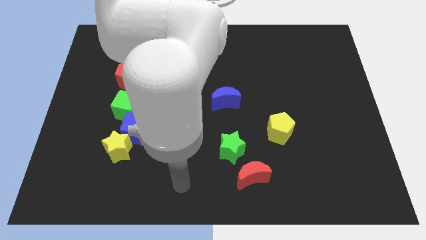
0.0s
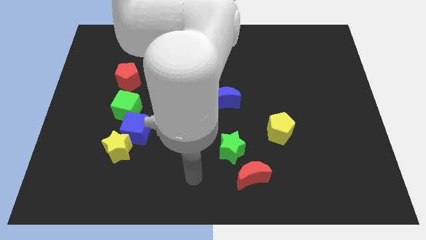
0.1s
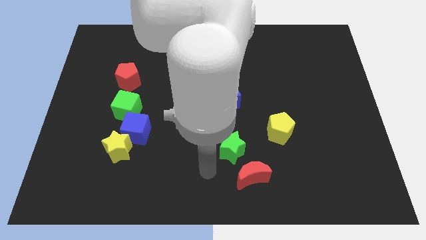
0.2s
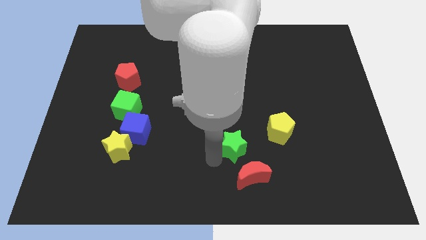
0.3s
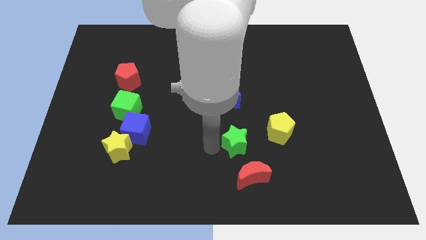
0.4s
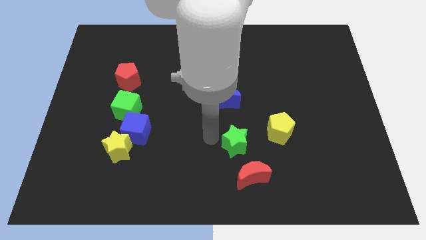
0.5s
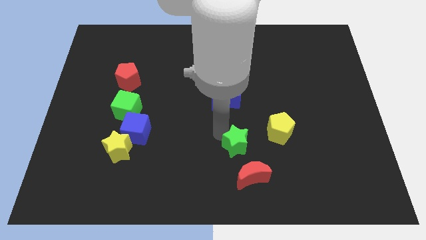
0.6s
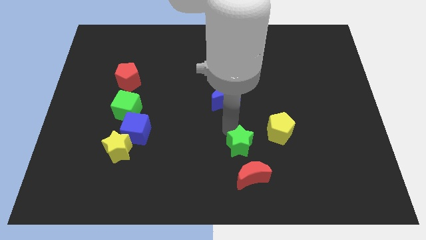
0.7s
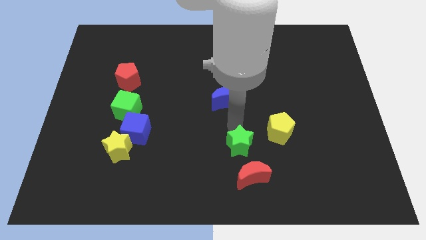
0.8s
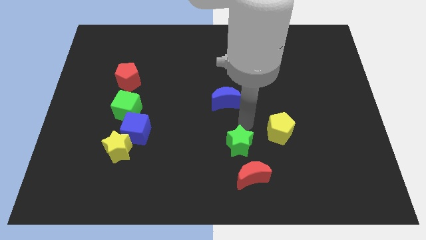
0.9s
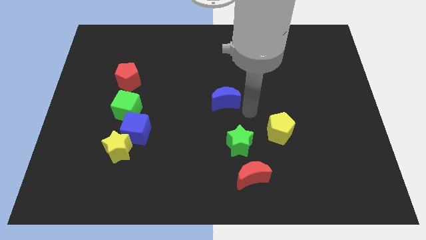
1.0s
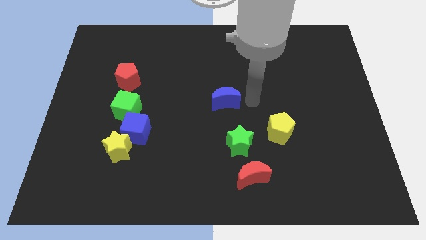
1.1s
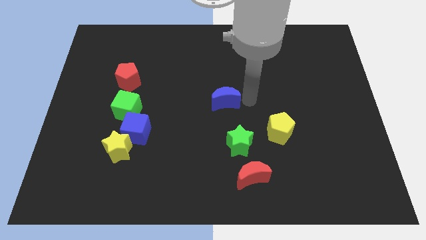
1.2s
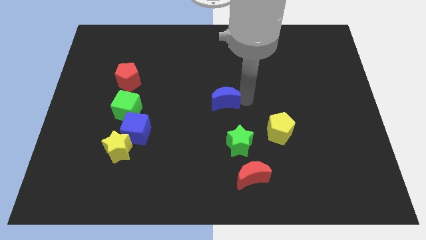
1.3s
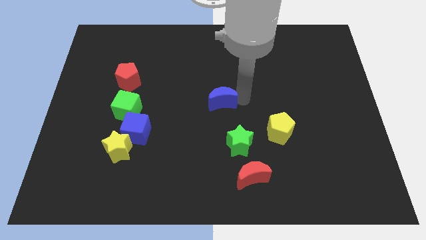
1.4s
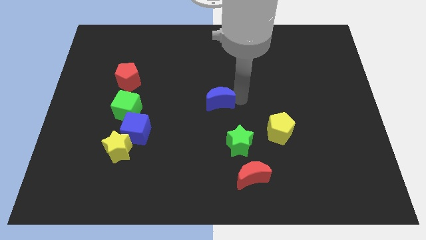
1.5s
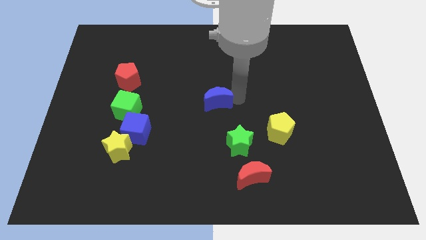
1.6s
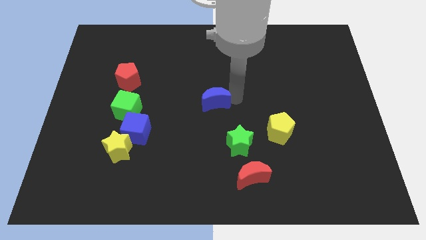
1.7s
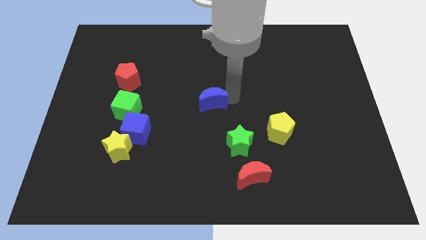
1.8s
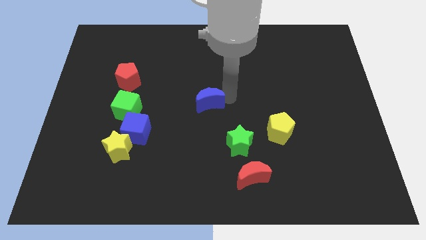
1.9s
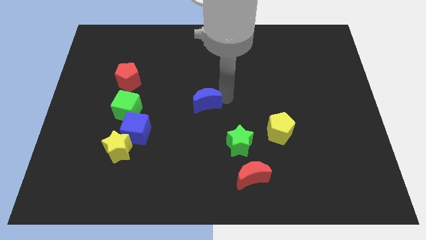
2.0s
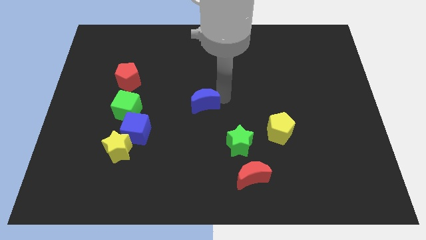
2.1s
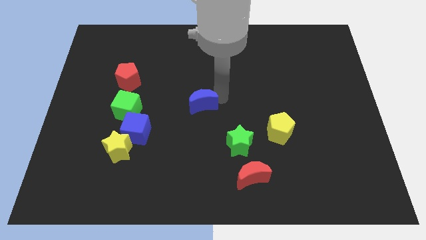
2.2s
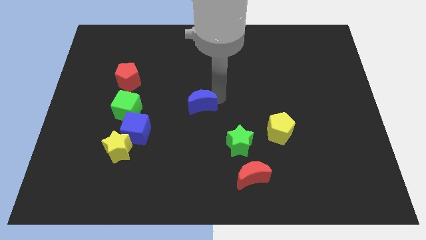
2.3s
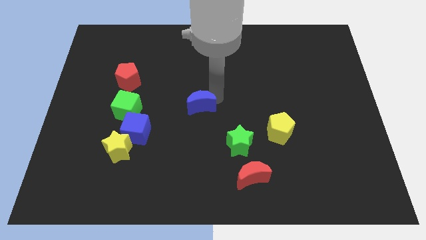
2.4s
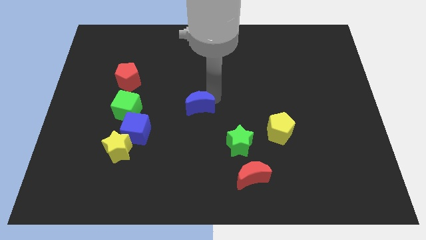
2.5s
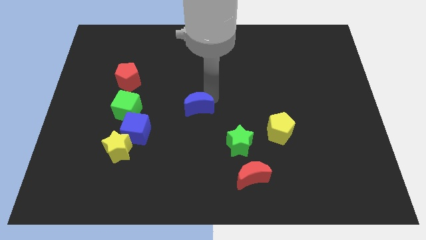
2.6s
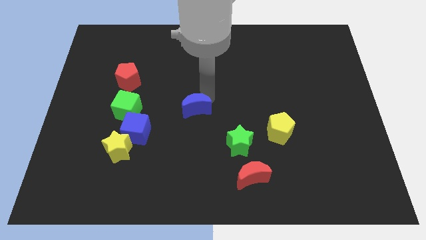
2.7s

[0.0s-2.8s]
slightly push the blue moon to the left

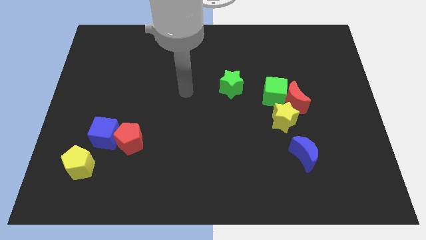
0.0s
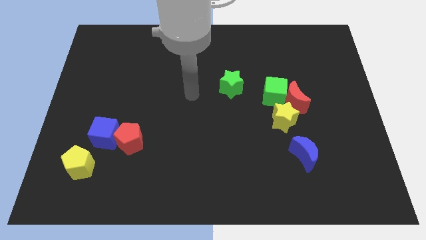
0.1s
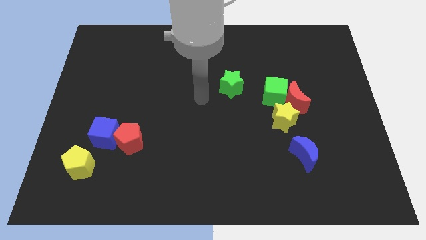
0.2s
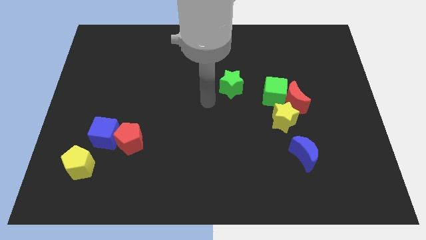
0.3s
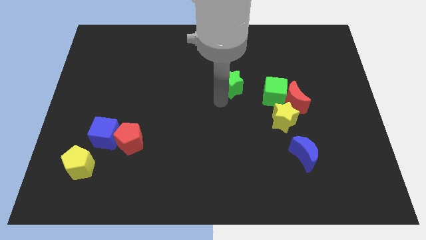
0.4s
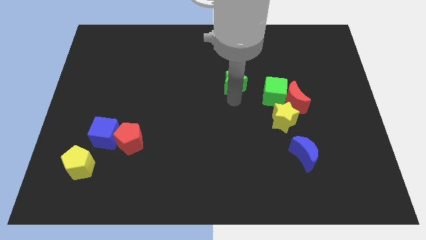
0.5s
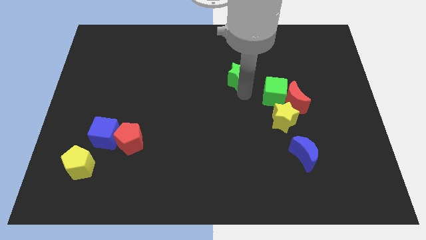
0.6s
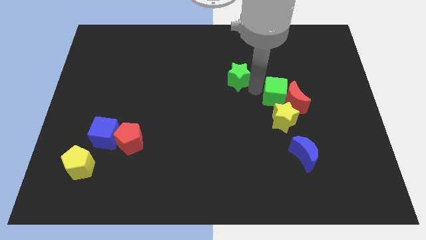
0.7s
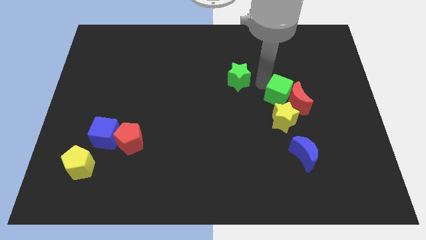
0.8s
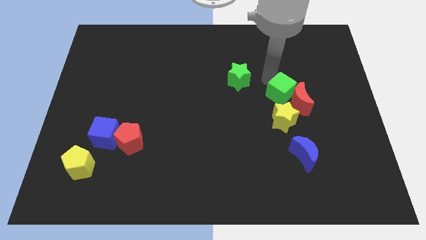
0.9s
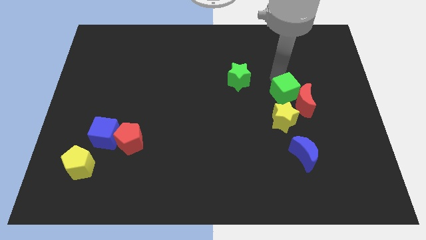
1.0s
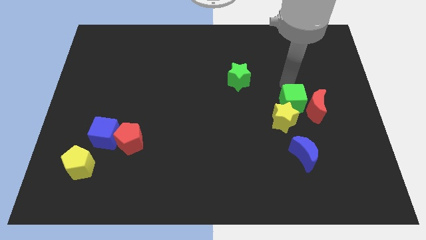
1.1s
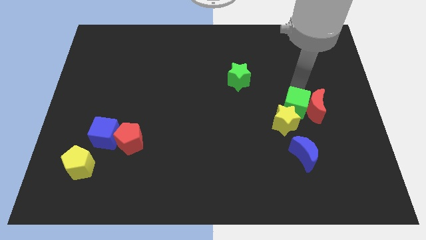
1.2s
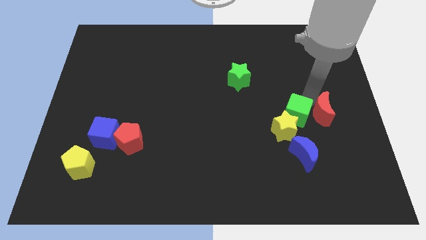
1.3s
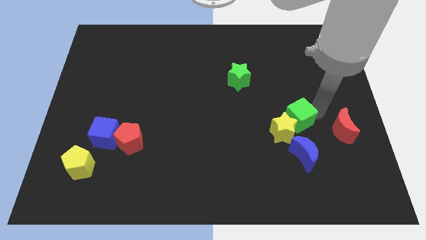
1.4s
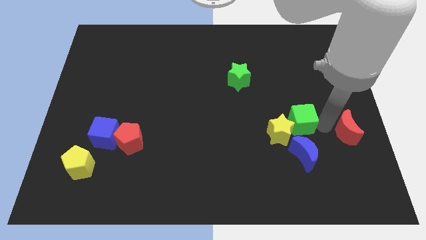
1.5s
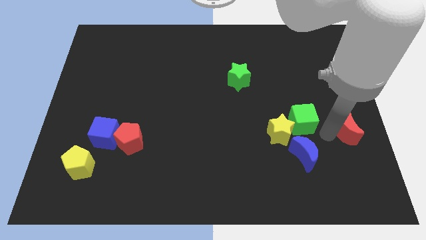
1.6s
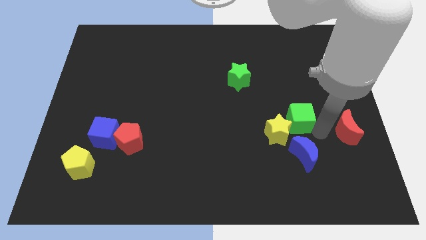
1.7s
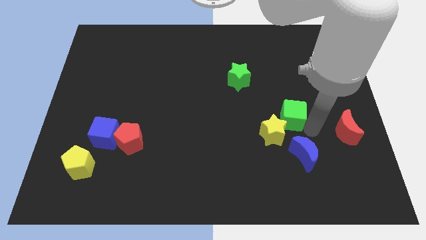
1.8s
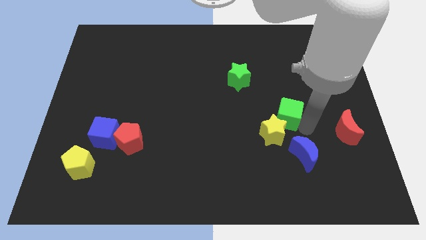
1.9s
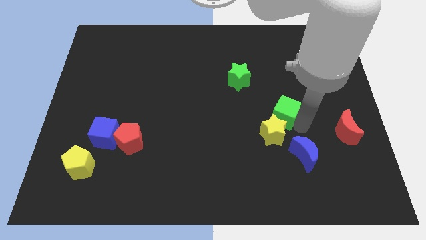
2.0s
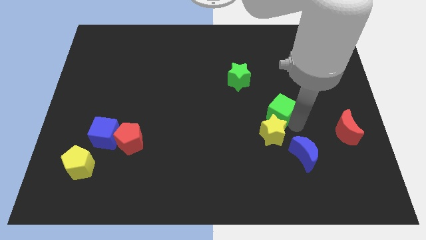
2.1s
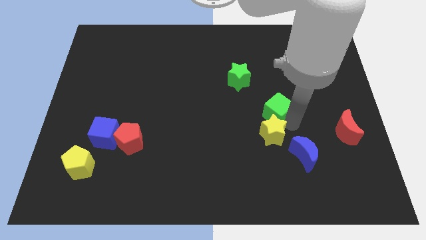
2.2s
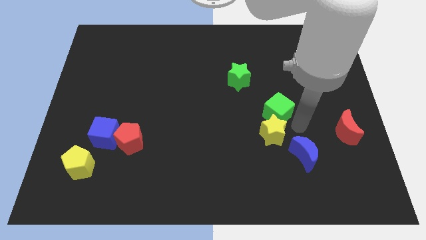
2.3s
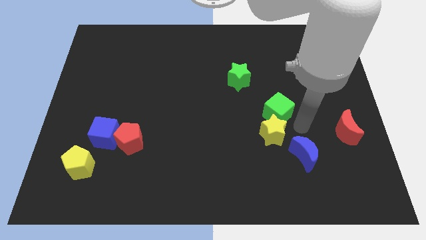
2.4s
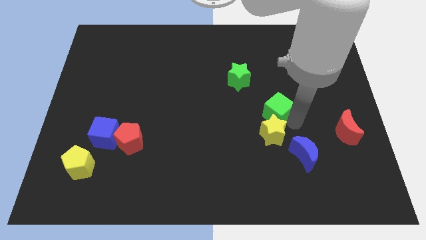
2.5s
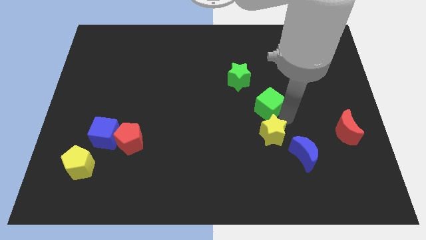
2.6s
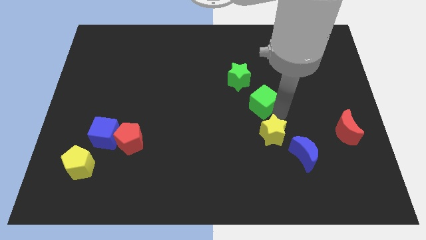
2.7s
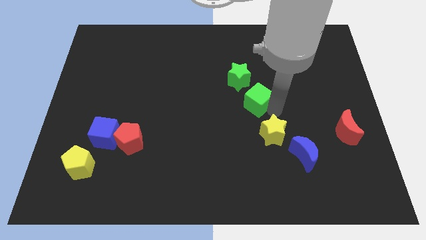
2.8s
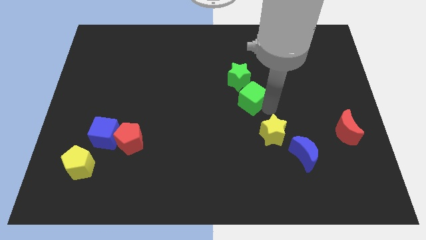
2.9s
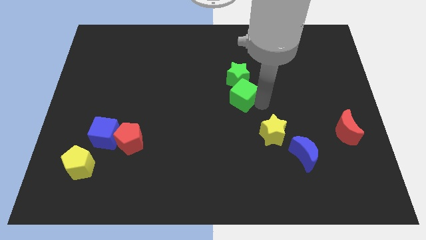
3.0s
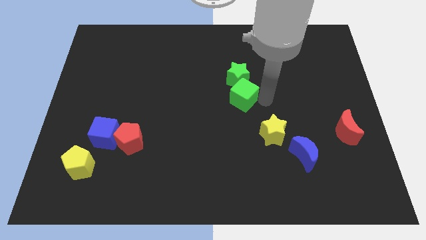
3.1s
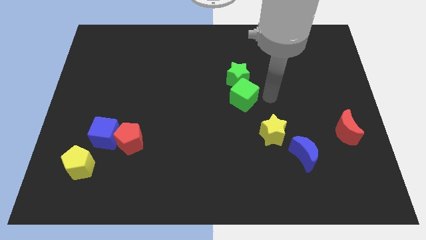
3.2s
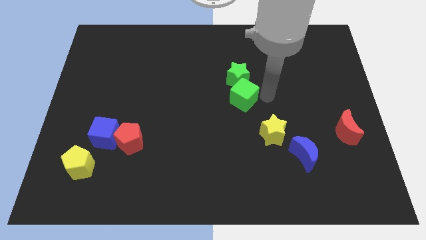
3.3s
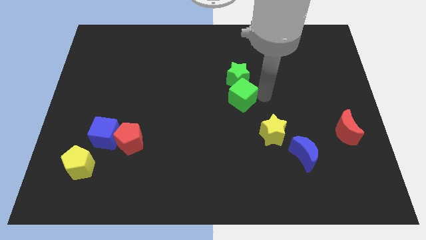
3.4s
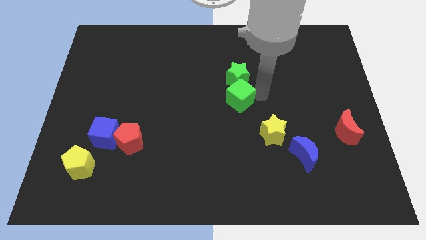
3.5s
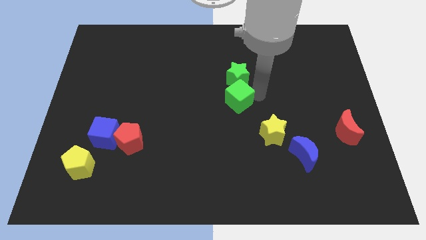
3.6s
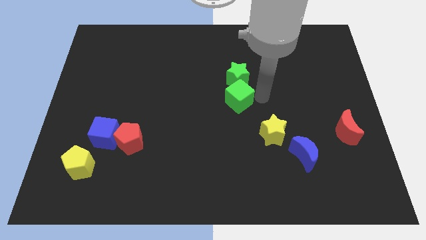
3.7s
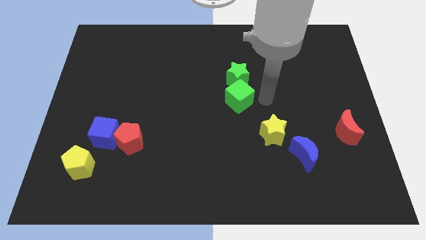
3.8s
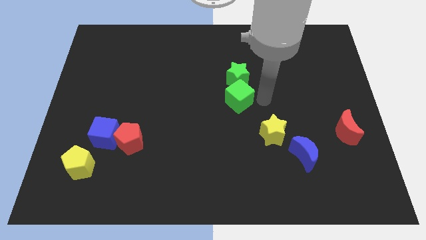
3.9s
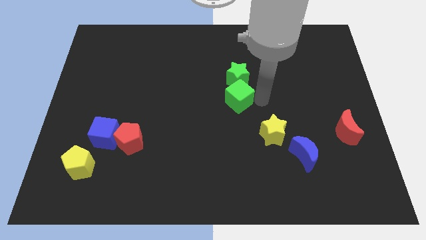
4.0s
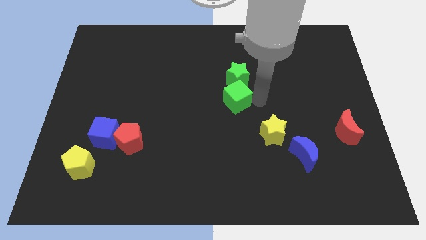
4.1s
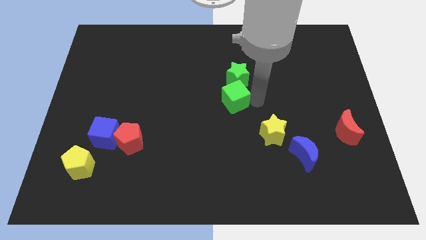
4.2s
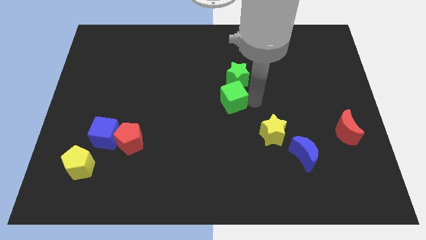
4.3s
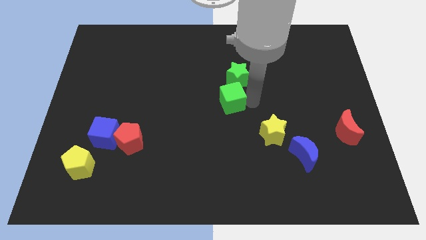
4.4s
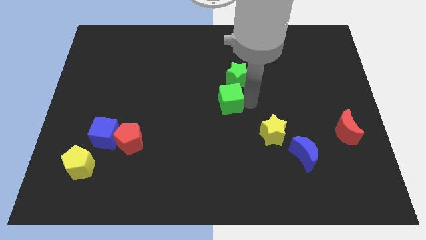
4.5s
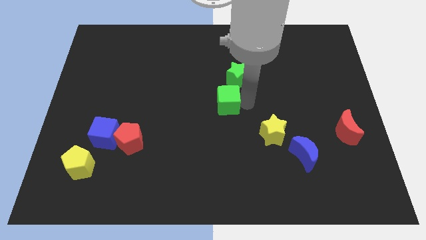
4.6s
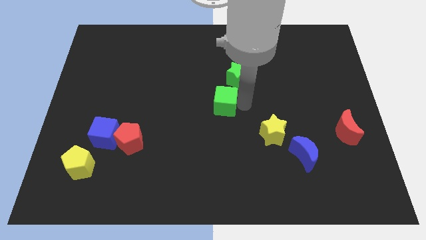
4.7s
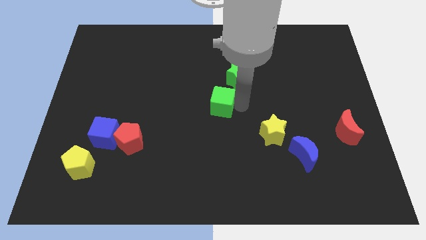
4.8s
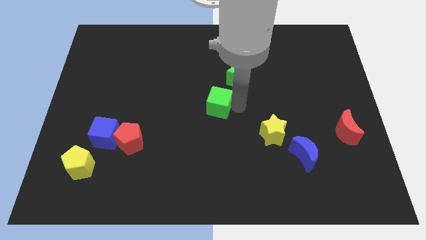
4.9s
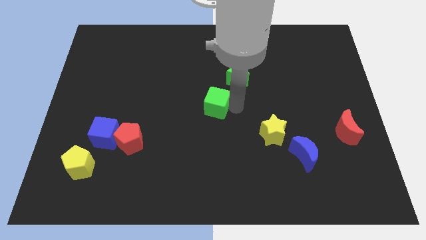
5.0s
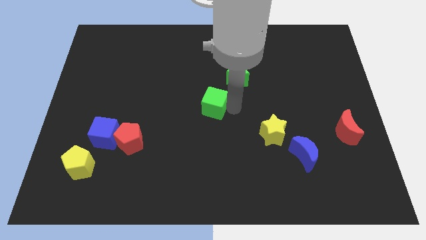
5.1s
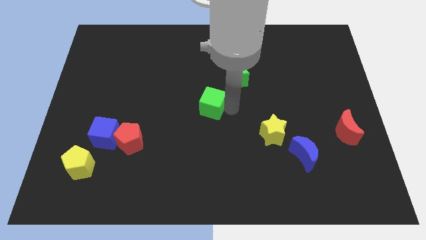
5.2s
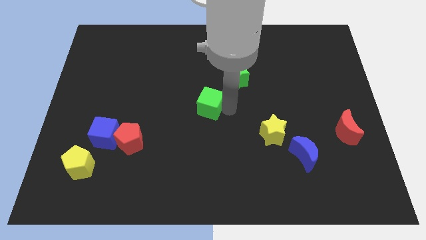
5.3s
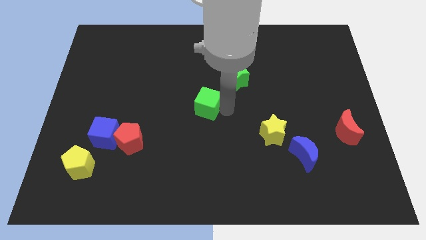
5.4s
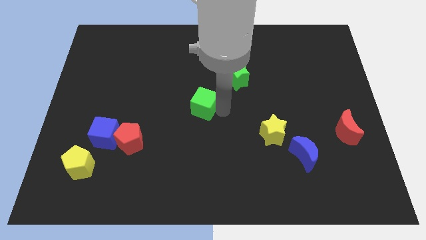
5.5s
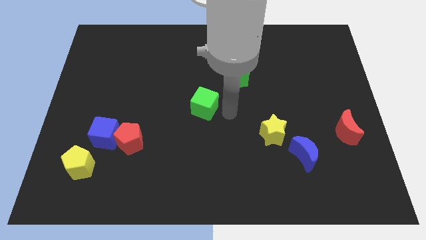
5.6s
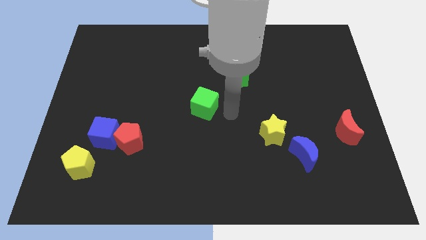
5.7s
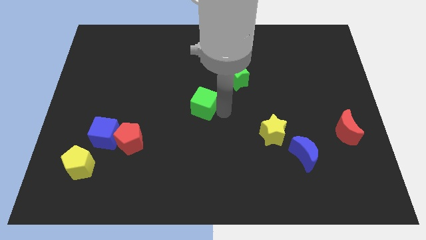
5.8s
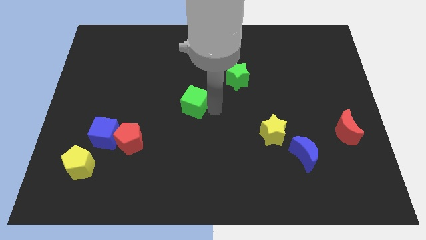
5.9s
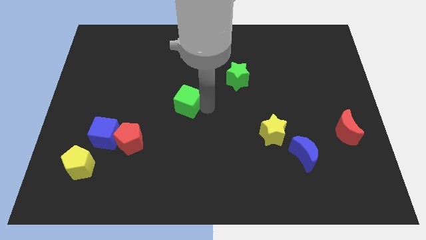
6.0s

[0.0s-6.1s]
push the green cube to the left
